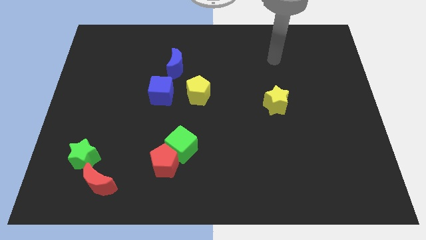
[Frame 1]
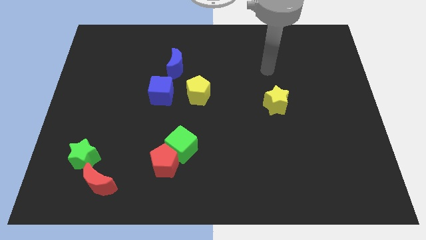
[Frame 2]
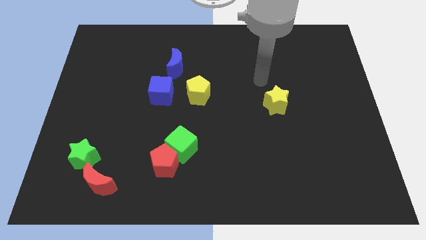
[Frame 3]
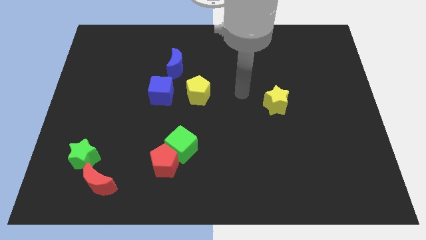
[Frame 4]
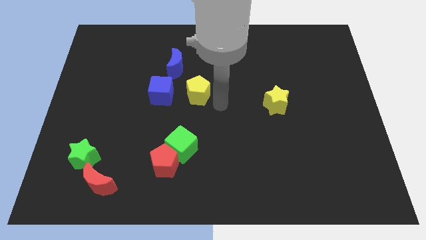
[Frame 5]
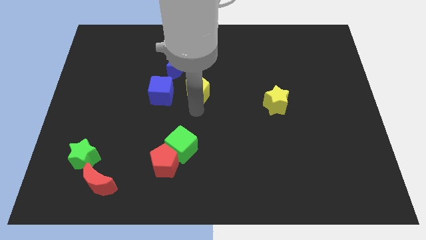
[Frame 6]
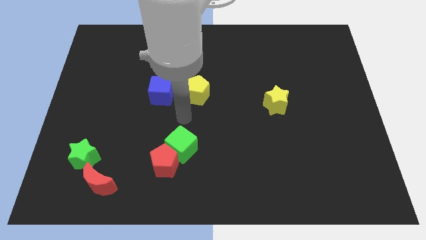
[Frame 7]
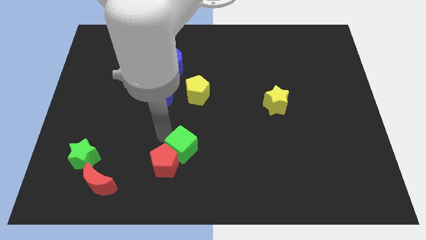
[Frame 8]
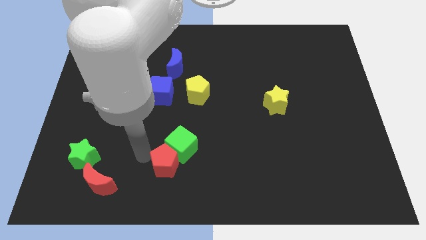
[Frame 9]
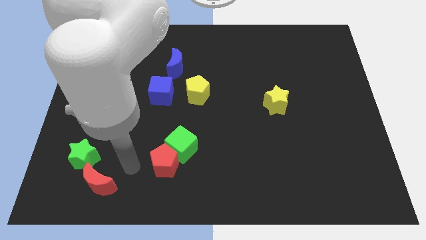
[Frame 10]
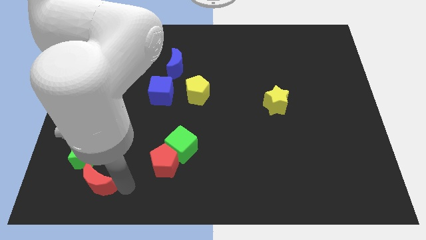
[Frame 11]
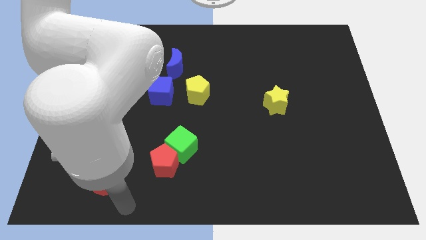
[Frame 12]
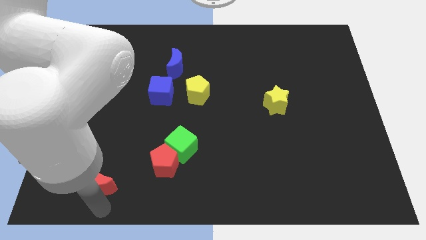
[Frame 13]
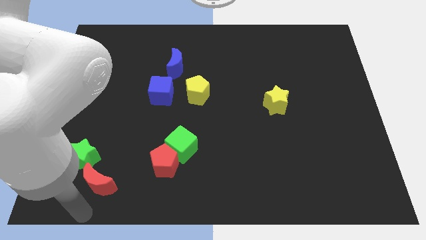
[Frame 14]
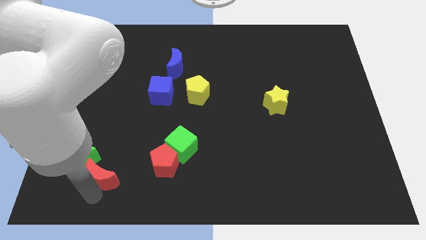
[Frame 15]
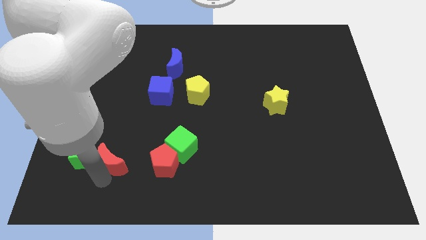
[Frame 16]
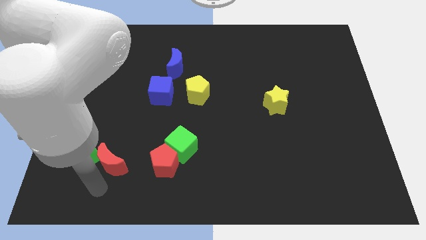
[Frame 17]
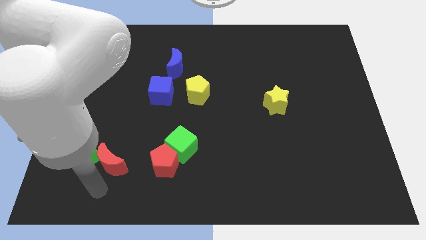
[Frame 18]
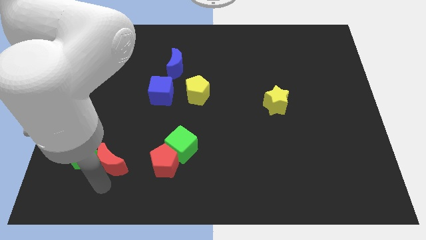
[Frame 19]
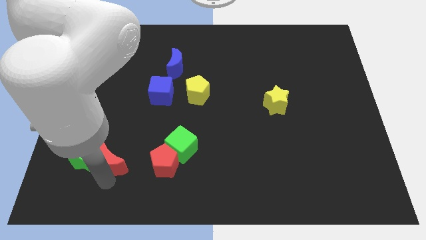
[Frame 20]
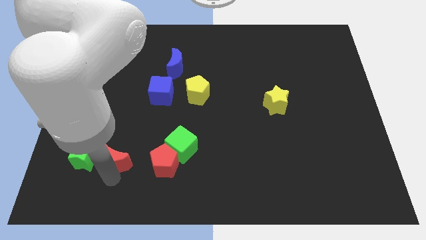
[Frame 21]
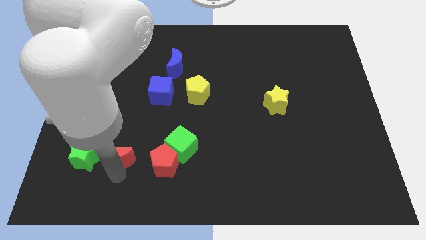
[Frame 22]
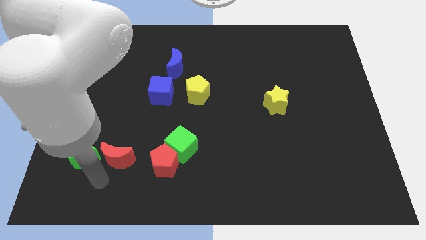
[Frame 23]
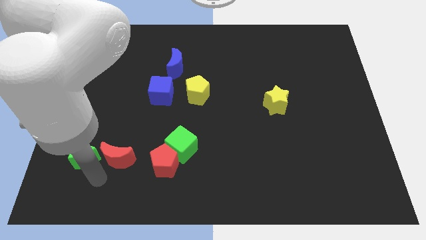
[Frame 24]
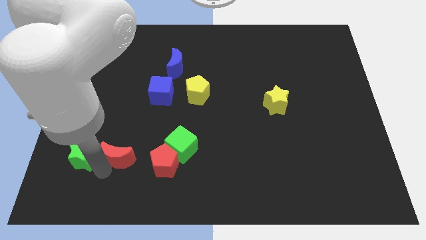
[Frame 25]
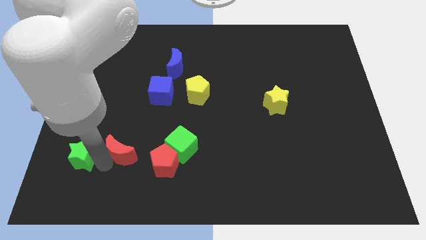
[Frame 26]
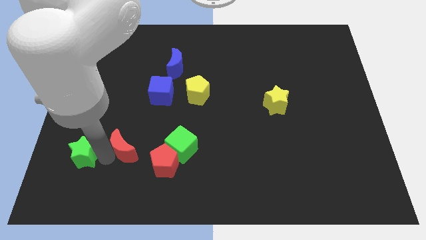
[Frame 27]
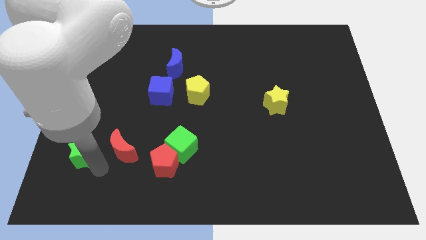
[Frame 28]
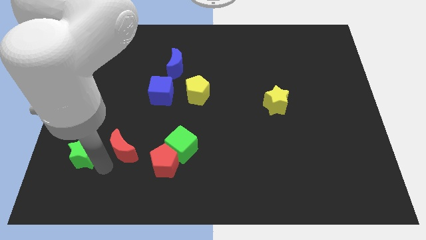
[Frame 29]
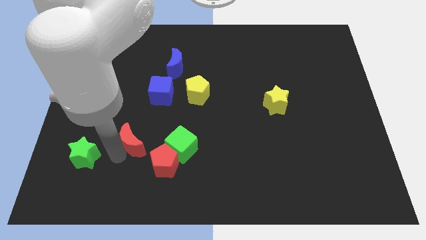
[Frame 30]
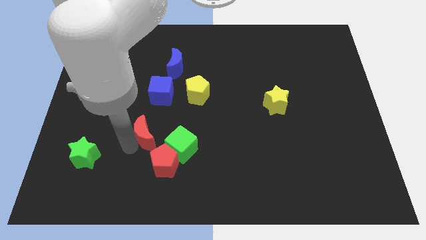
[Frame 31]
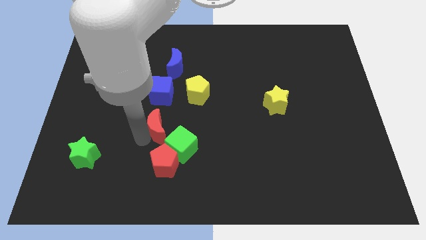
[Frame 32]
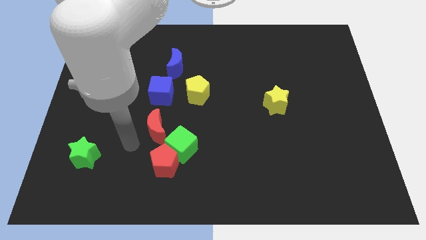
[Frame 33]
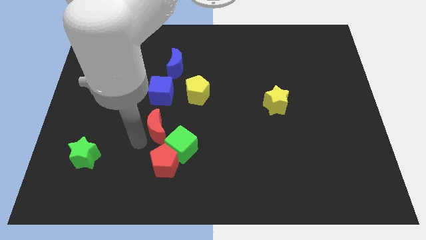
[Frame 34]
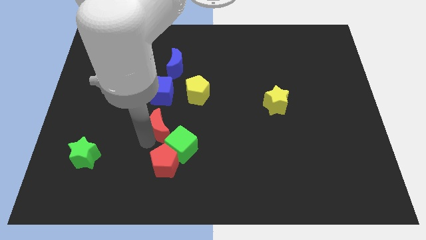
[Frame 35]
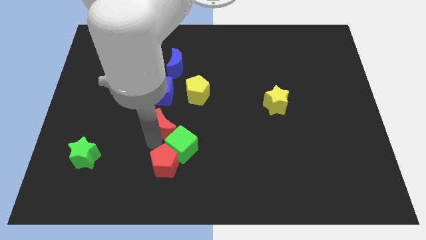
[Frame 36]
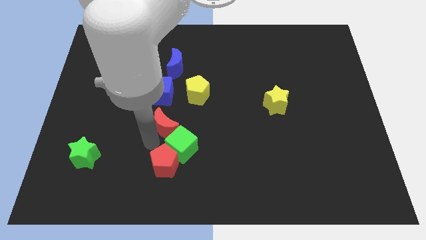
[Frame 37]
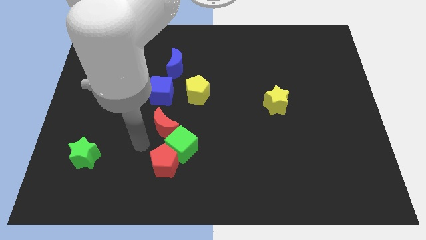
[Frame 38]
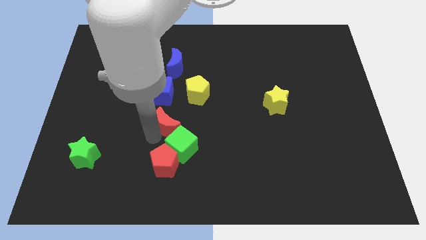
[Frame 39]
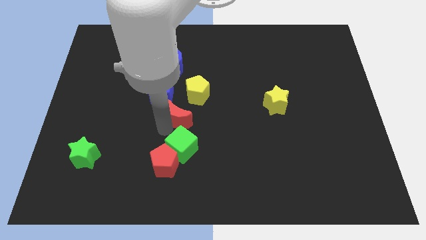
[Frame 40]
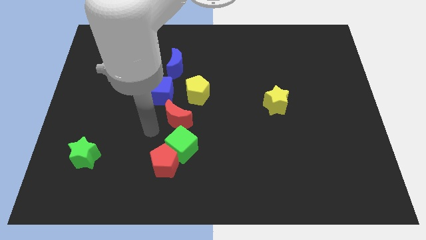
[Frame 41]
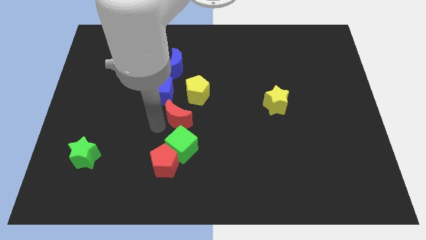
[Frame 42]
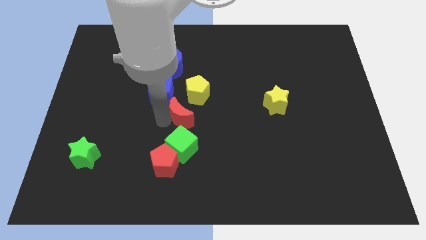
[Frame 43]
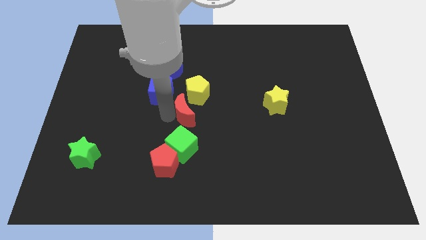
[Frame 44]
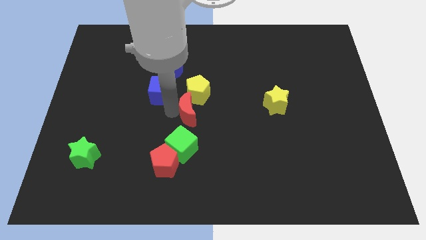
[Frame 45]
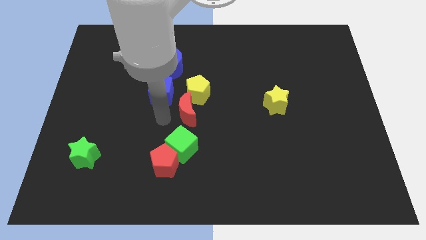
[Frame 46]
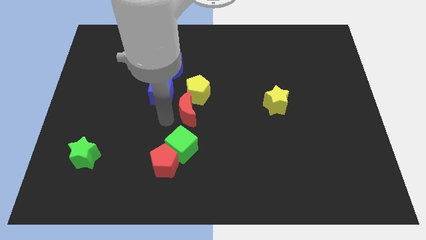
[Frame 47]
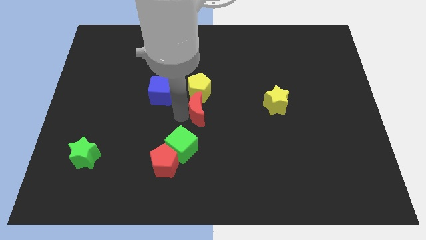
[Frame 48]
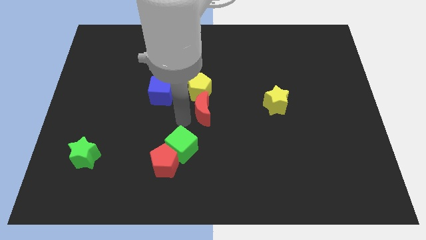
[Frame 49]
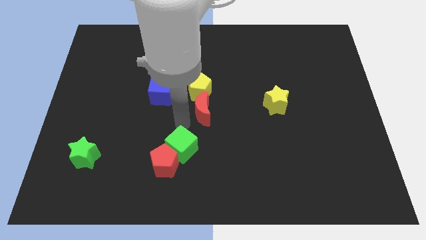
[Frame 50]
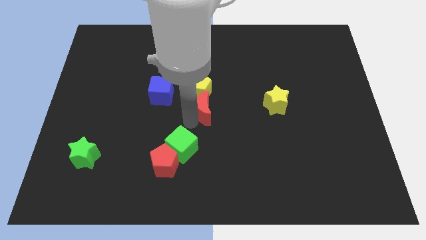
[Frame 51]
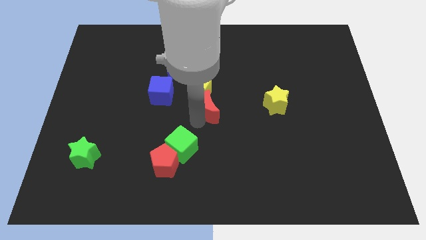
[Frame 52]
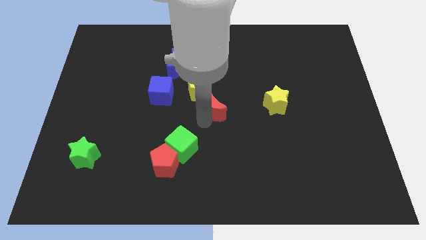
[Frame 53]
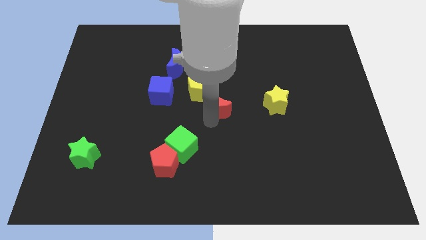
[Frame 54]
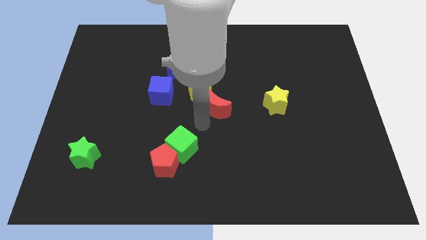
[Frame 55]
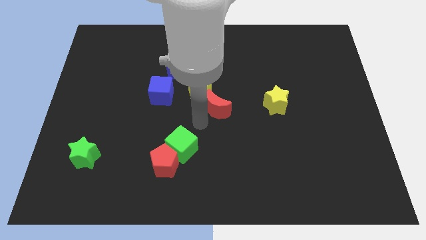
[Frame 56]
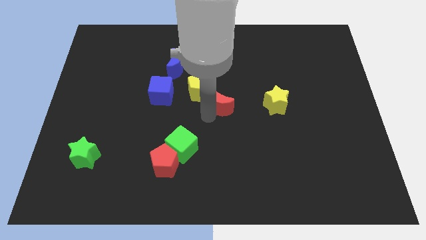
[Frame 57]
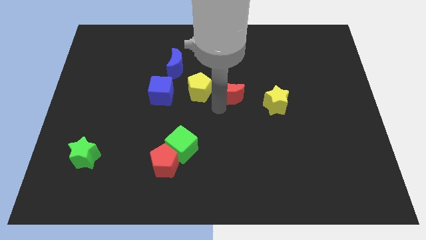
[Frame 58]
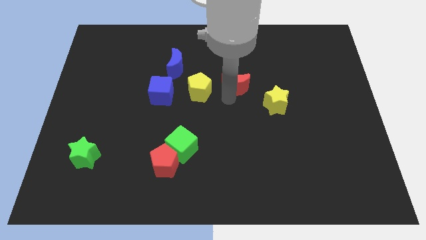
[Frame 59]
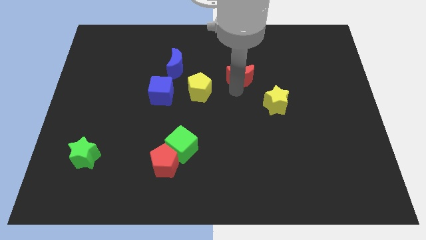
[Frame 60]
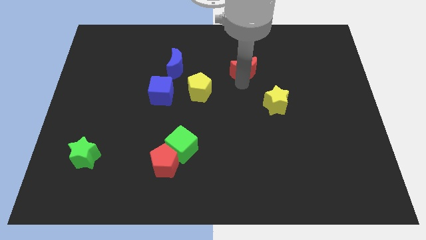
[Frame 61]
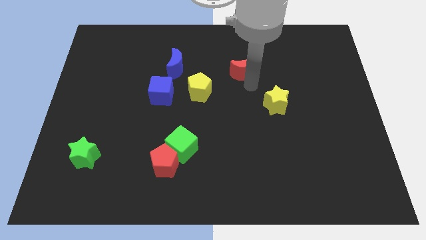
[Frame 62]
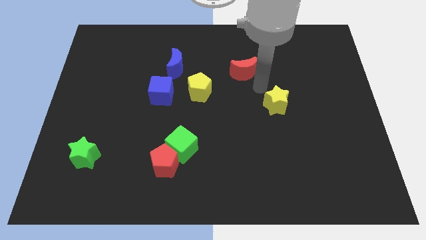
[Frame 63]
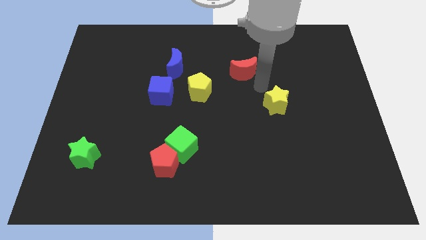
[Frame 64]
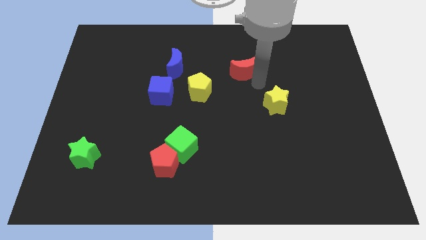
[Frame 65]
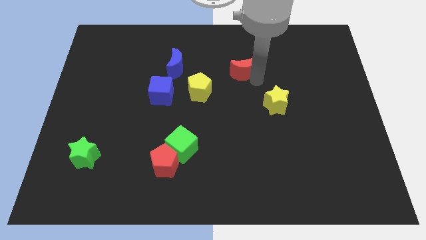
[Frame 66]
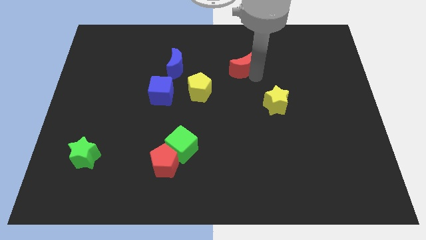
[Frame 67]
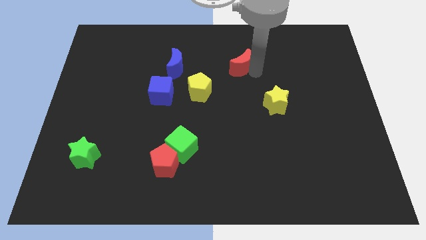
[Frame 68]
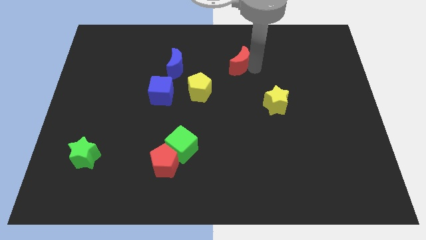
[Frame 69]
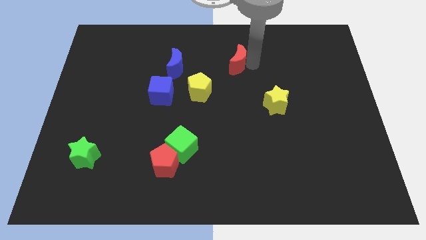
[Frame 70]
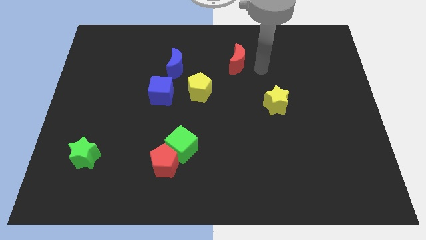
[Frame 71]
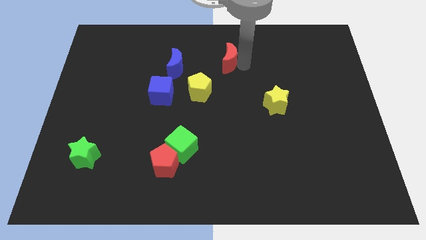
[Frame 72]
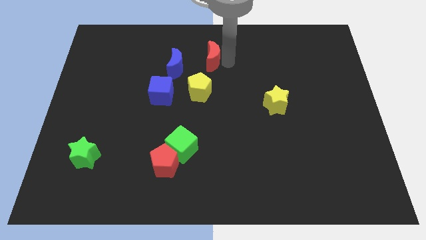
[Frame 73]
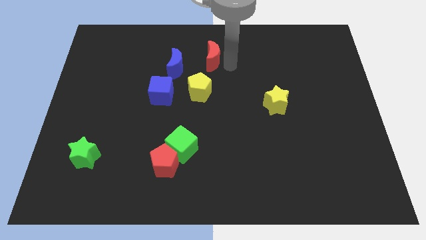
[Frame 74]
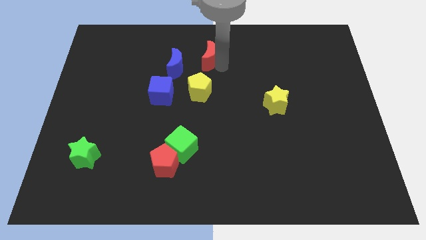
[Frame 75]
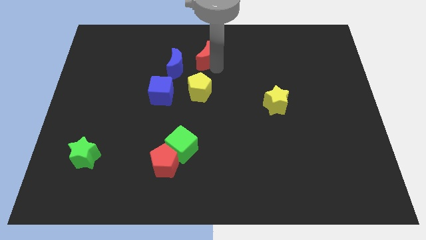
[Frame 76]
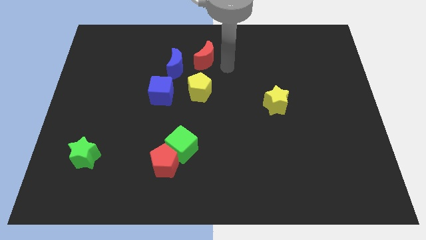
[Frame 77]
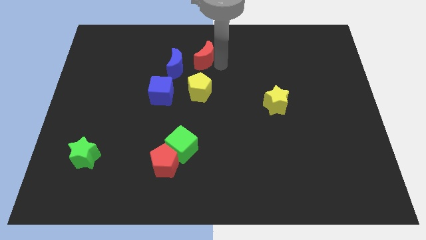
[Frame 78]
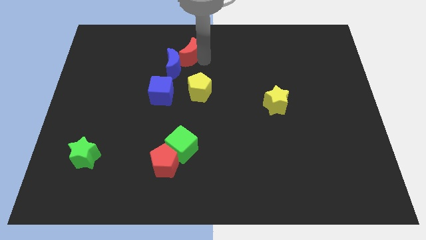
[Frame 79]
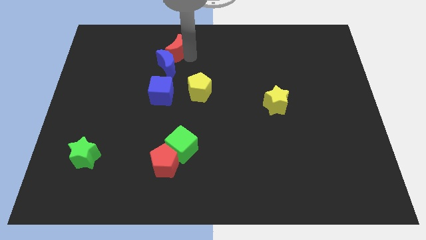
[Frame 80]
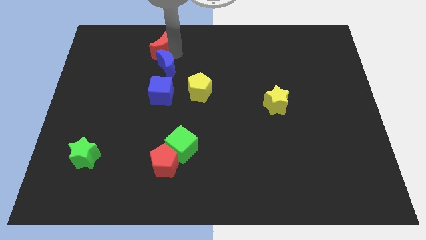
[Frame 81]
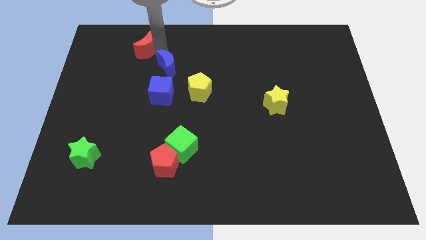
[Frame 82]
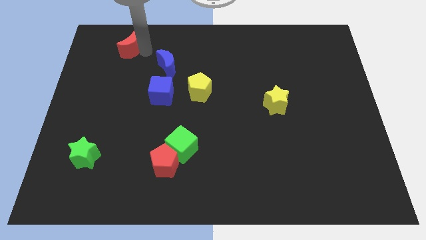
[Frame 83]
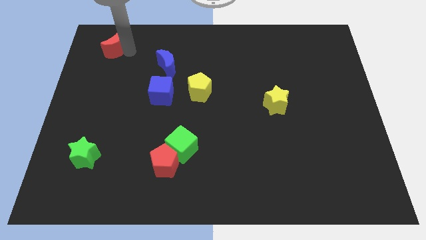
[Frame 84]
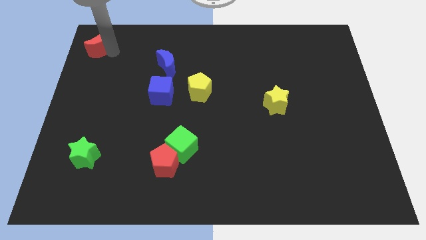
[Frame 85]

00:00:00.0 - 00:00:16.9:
put the red moon to the top left of the board
